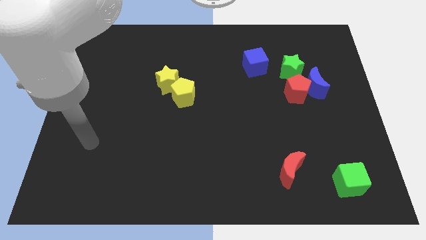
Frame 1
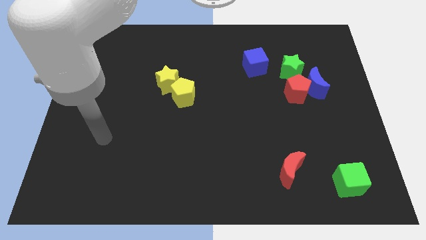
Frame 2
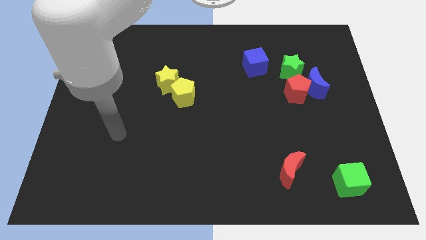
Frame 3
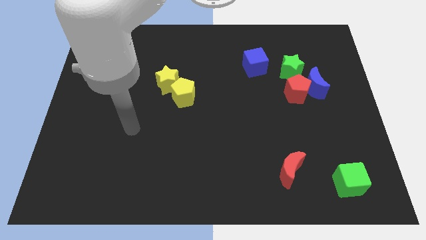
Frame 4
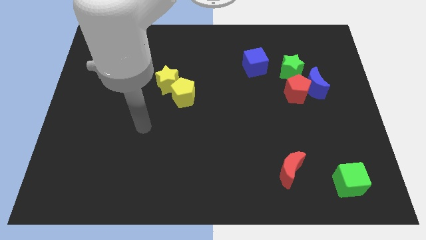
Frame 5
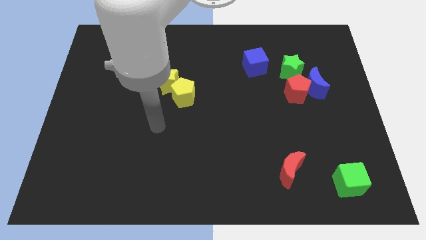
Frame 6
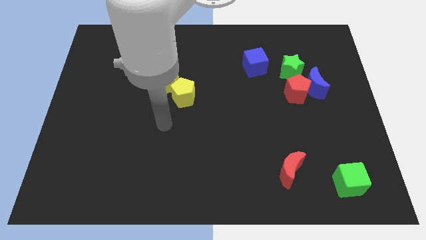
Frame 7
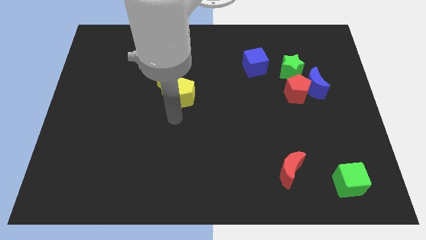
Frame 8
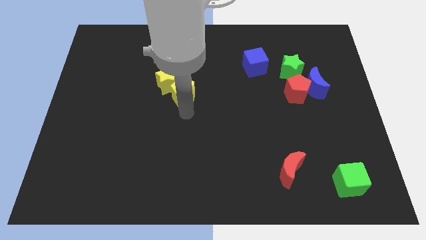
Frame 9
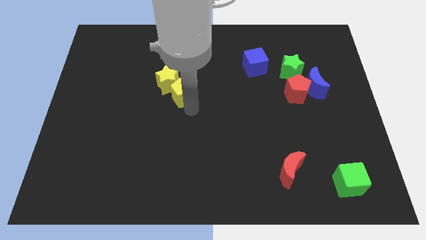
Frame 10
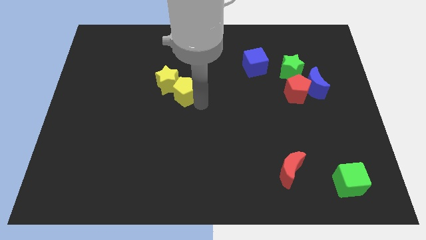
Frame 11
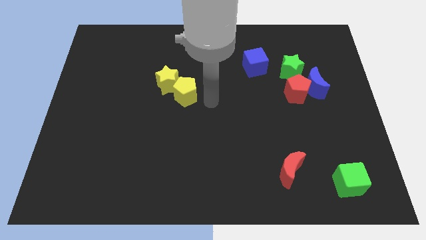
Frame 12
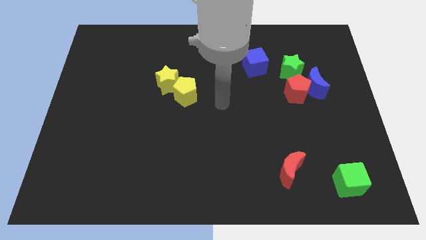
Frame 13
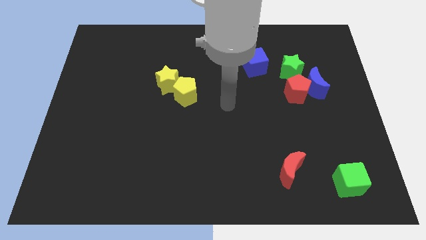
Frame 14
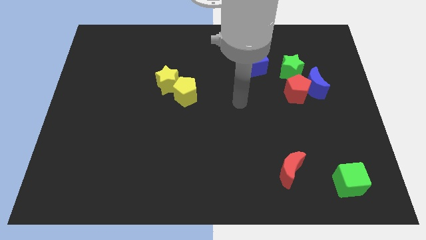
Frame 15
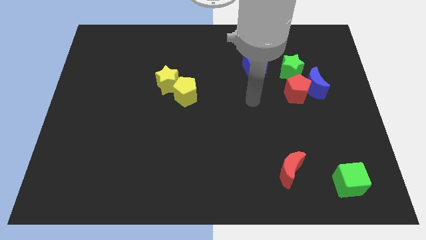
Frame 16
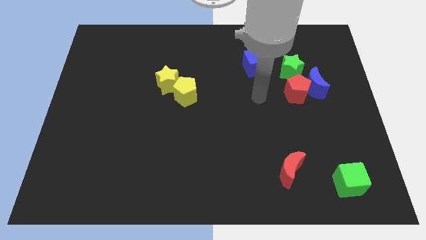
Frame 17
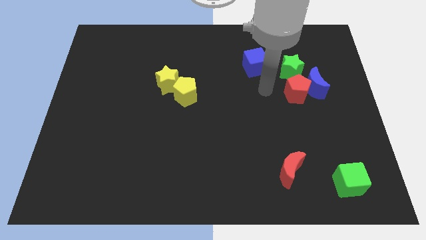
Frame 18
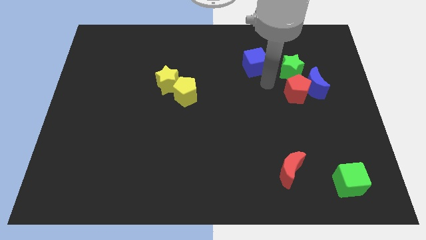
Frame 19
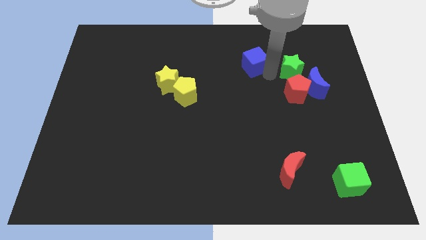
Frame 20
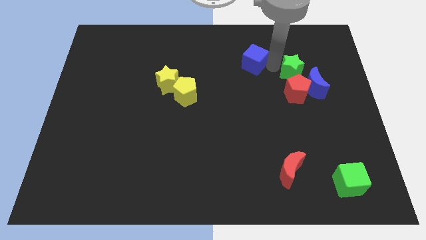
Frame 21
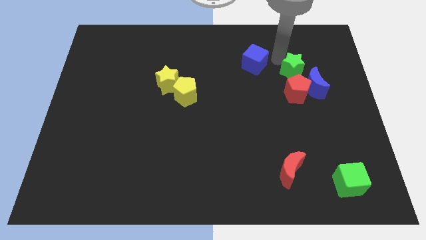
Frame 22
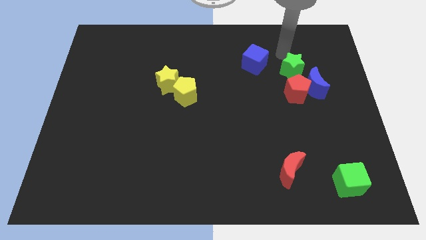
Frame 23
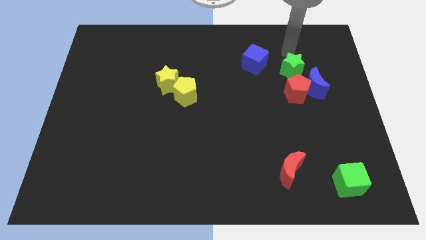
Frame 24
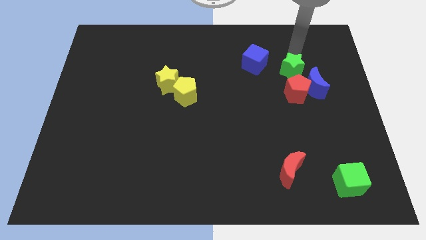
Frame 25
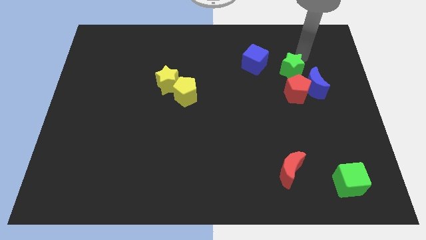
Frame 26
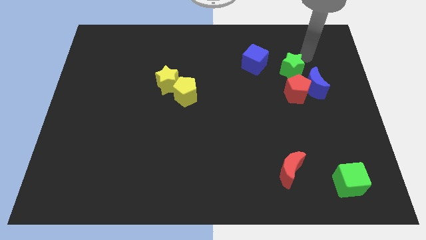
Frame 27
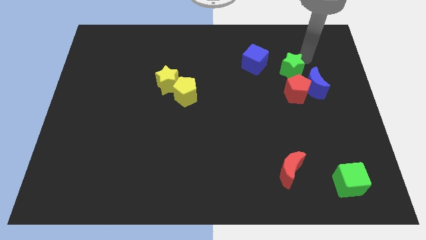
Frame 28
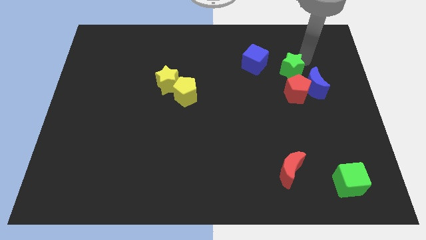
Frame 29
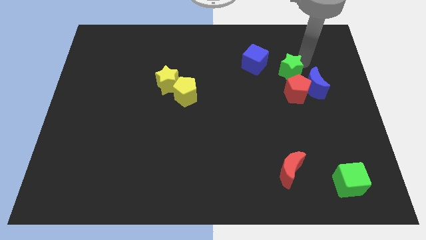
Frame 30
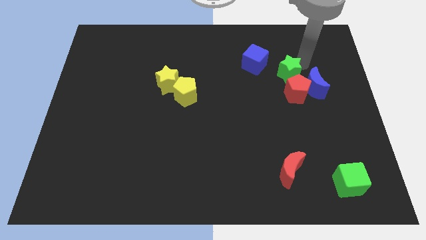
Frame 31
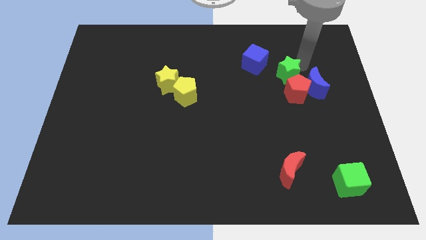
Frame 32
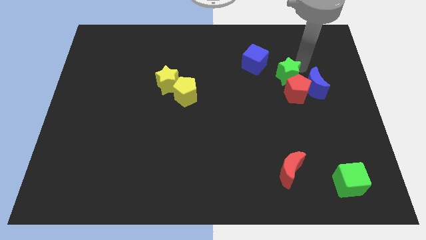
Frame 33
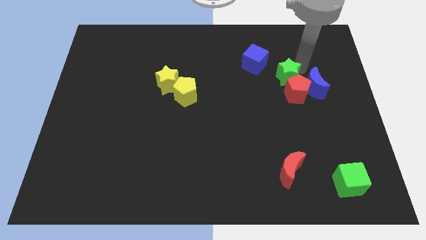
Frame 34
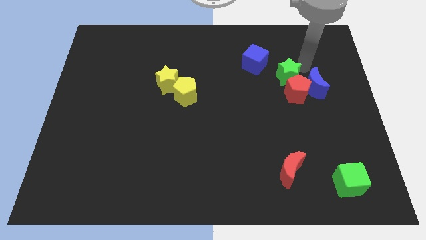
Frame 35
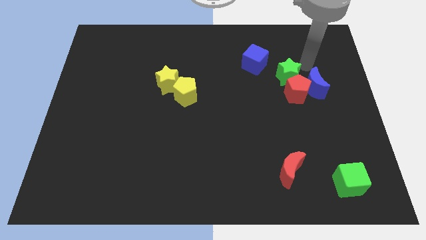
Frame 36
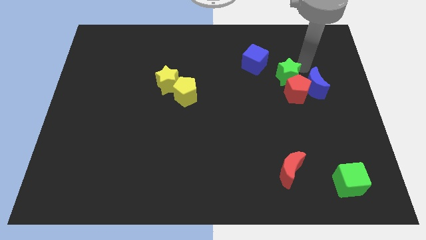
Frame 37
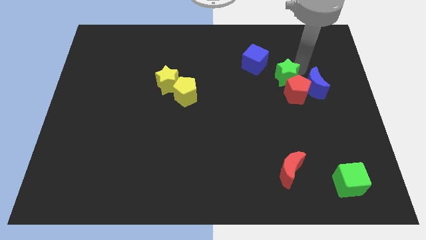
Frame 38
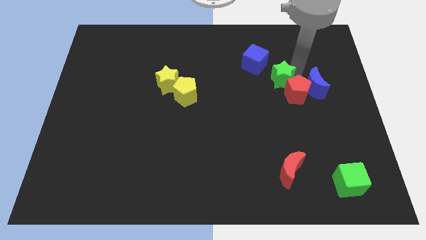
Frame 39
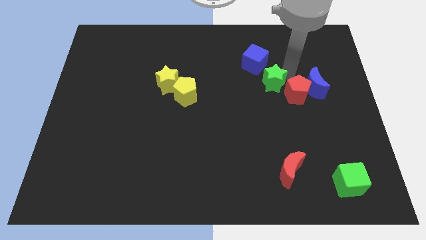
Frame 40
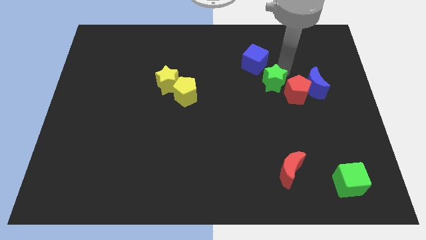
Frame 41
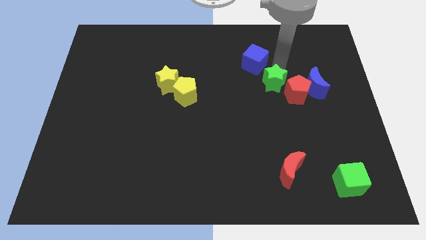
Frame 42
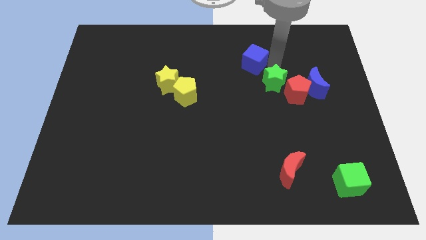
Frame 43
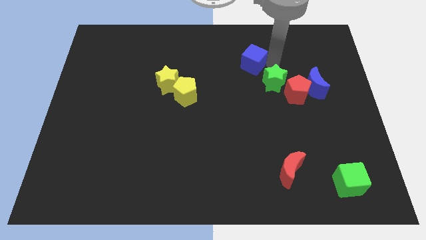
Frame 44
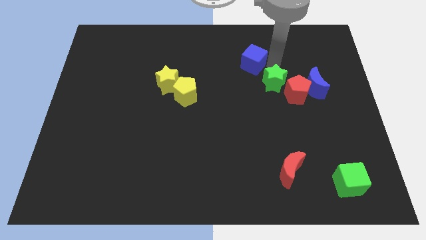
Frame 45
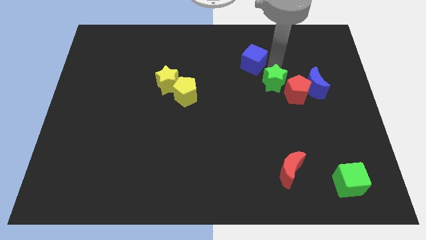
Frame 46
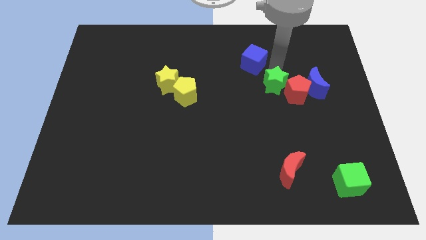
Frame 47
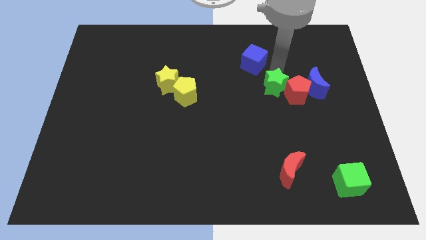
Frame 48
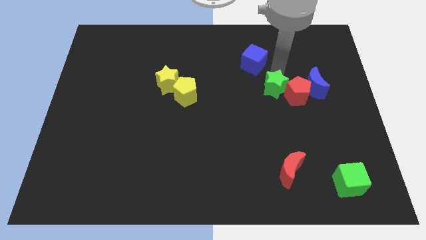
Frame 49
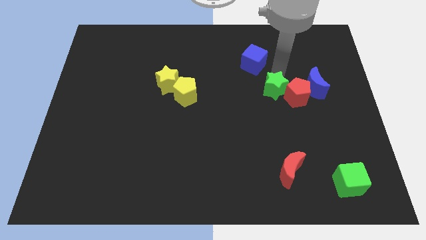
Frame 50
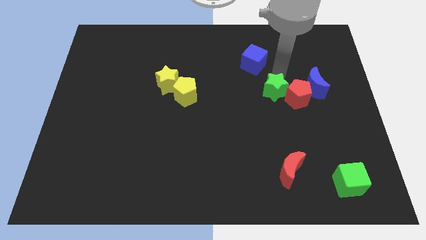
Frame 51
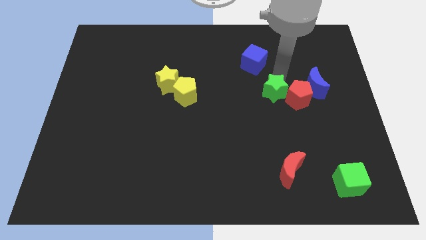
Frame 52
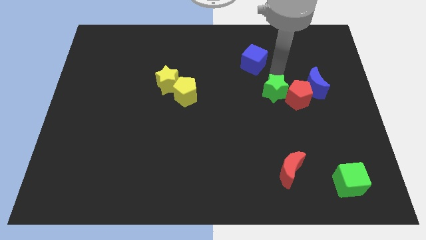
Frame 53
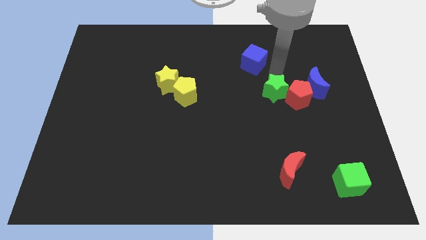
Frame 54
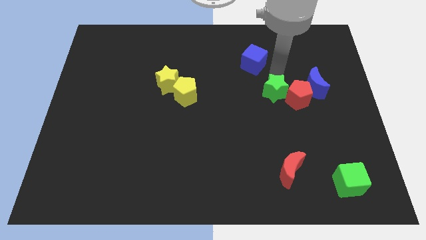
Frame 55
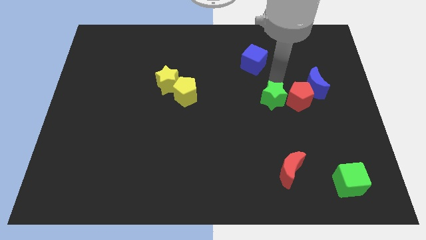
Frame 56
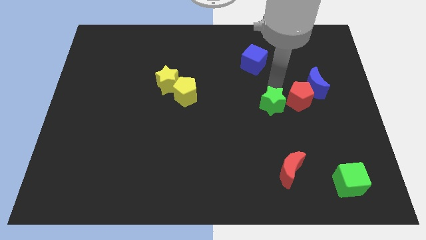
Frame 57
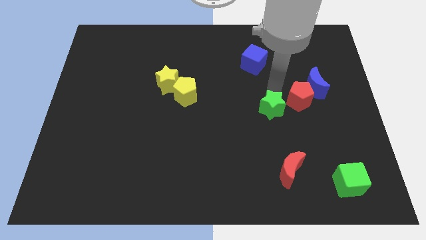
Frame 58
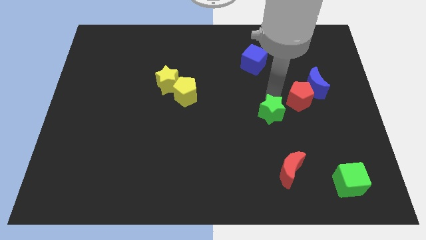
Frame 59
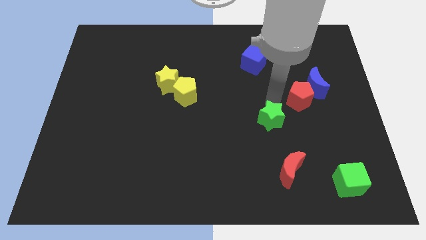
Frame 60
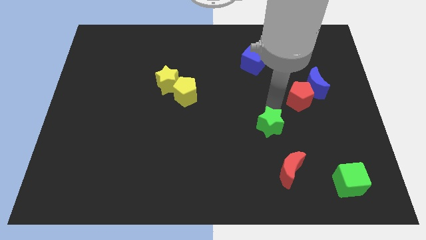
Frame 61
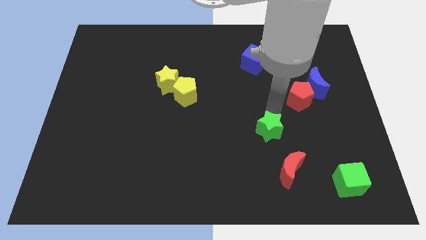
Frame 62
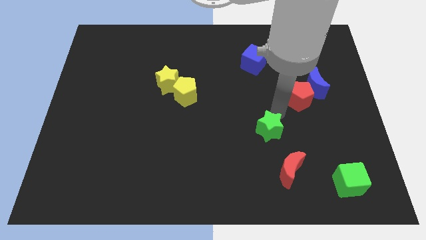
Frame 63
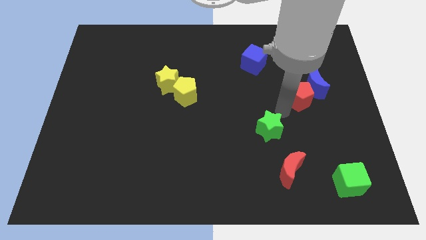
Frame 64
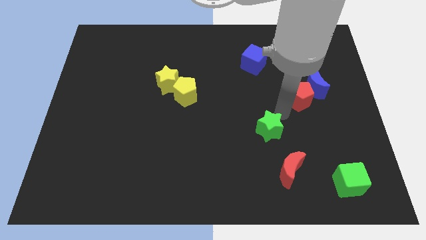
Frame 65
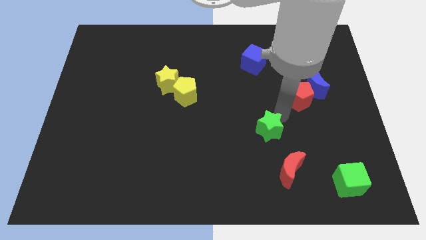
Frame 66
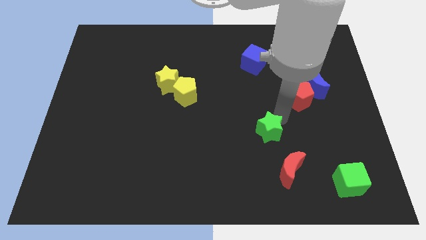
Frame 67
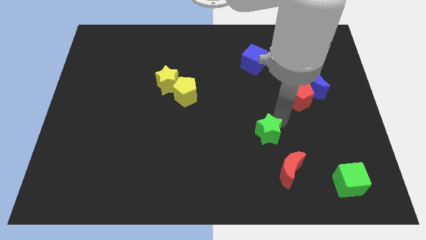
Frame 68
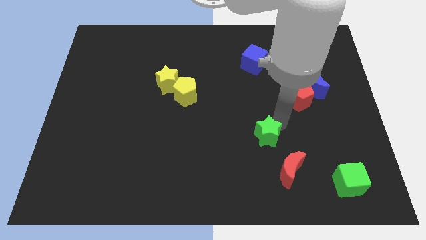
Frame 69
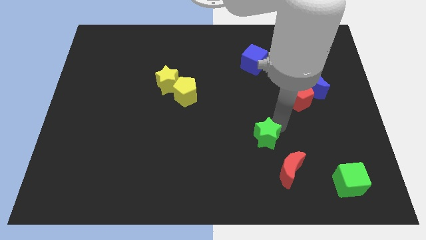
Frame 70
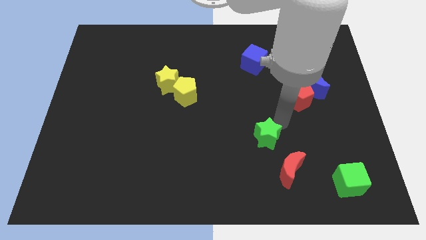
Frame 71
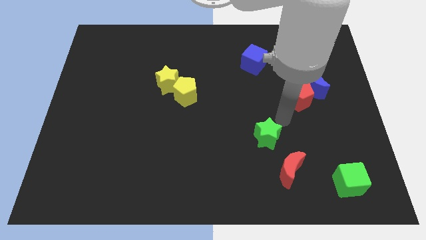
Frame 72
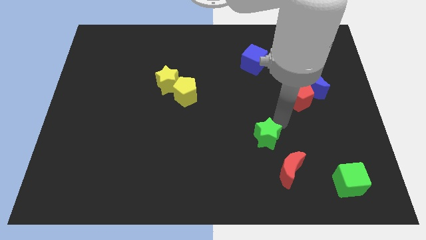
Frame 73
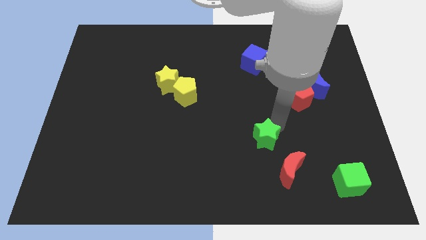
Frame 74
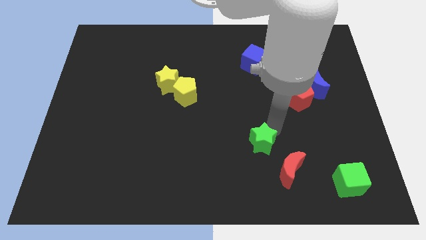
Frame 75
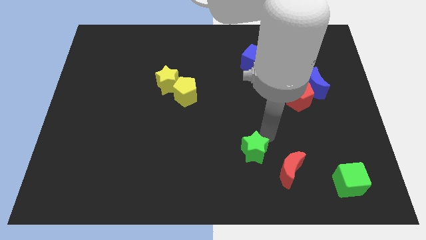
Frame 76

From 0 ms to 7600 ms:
push the green star to the left of the red moon
